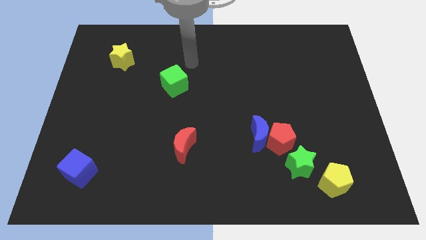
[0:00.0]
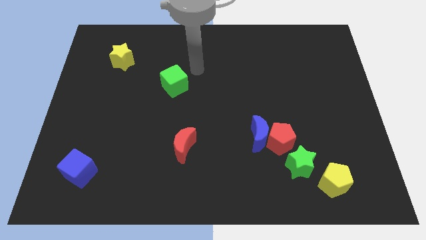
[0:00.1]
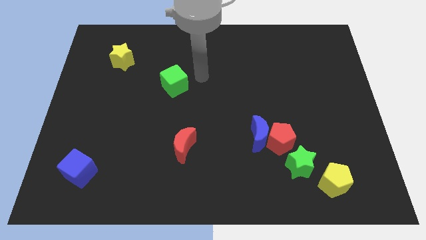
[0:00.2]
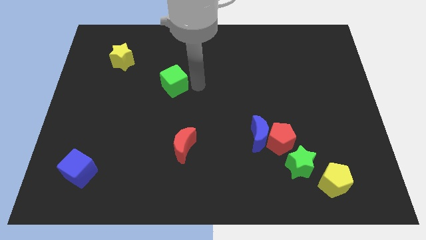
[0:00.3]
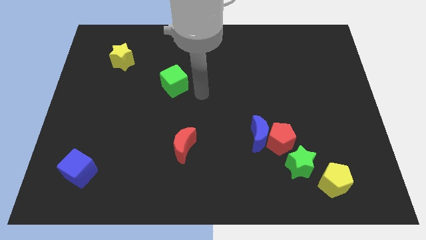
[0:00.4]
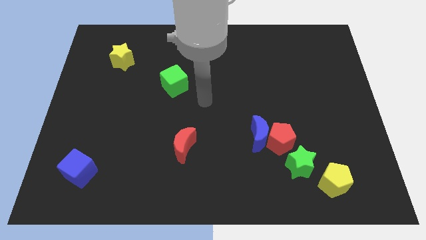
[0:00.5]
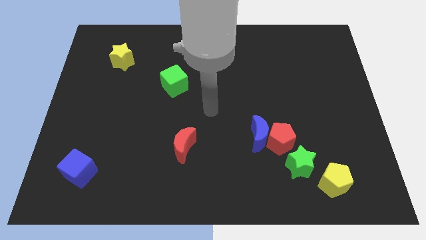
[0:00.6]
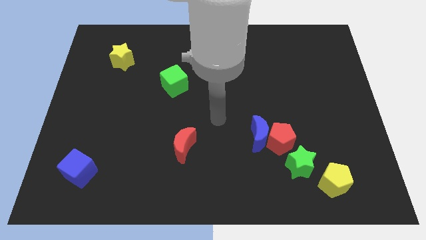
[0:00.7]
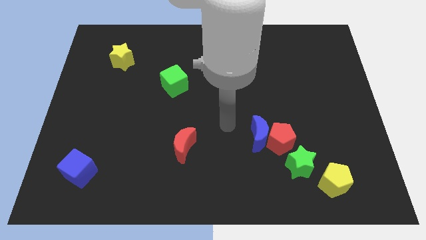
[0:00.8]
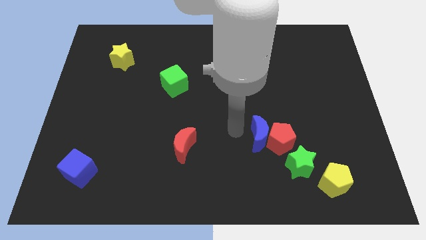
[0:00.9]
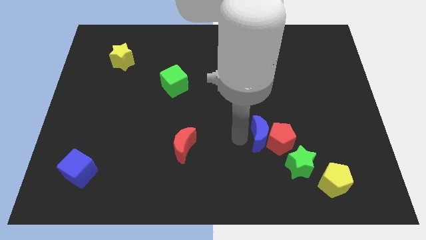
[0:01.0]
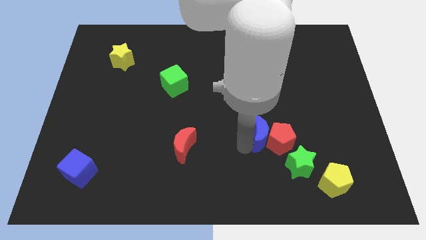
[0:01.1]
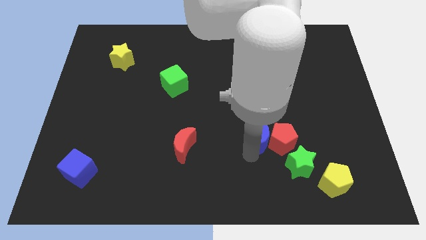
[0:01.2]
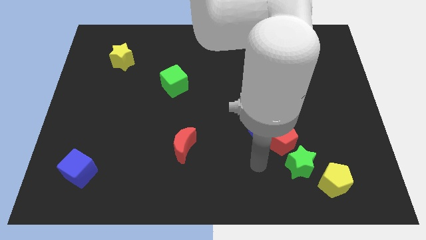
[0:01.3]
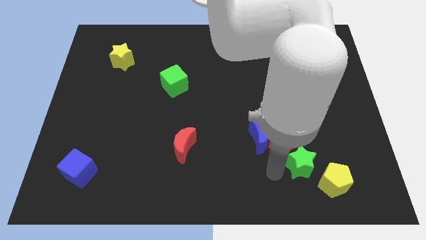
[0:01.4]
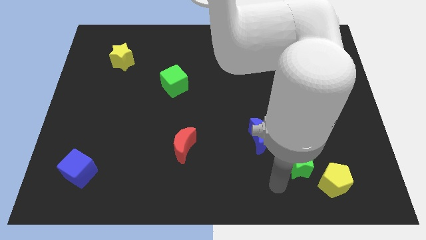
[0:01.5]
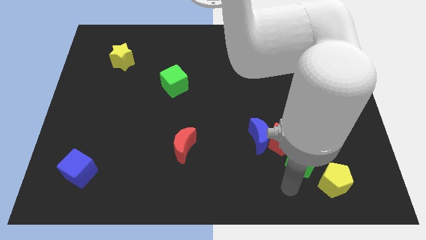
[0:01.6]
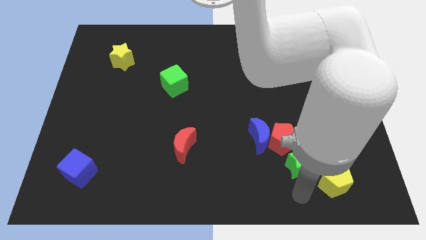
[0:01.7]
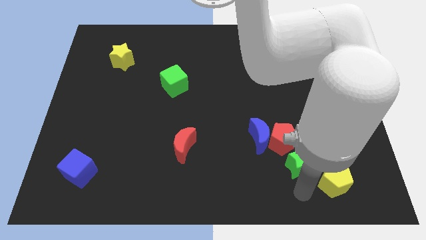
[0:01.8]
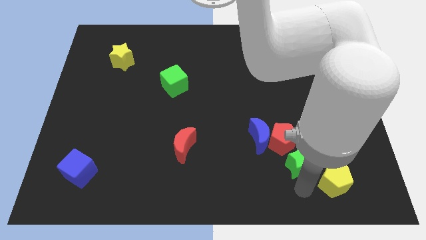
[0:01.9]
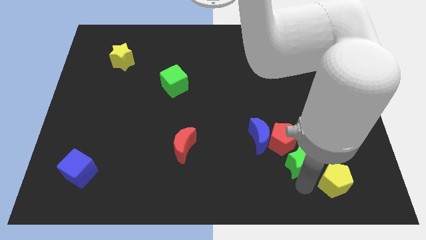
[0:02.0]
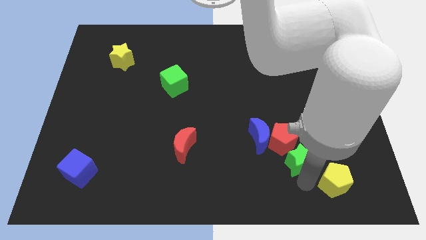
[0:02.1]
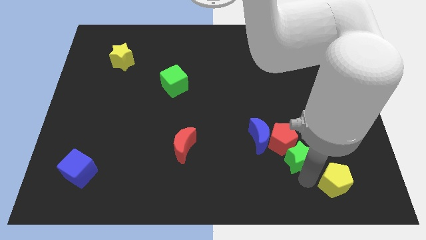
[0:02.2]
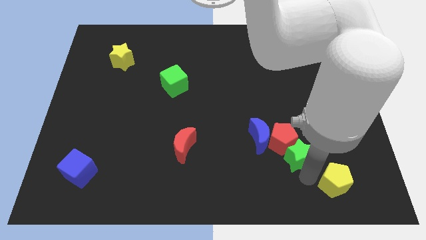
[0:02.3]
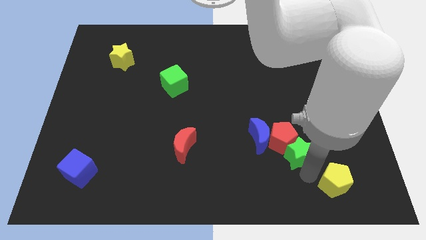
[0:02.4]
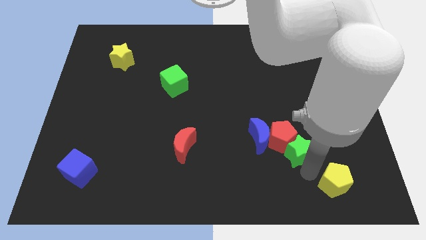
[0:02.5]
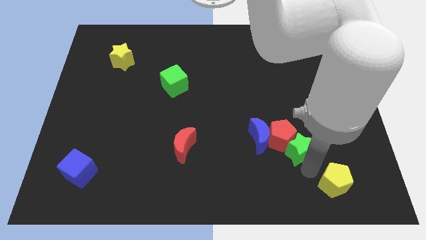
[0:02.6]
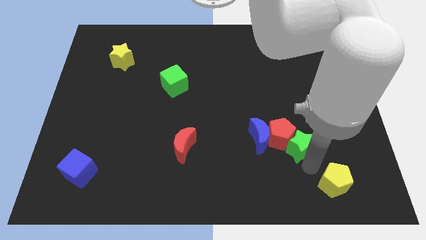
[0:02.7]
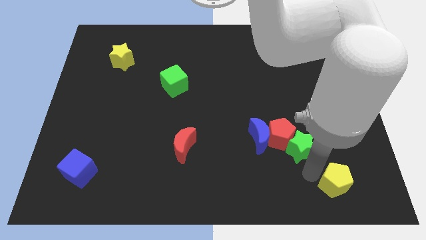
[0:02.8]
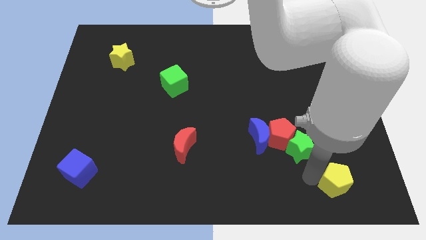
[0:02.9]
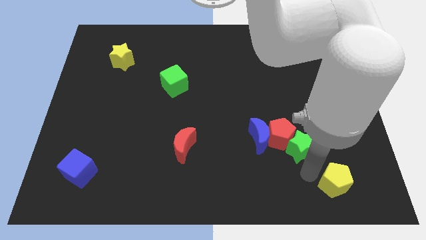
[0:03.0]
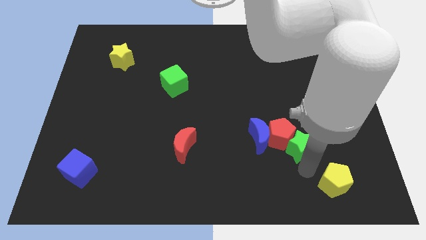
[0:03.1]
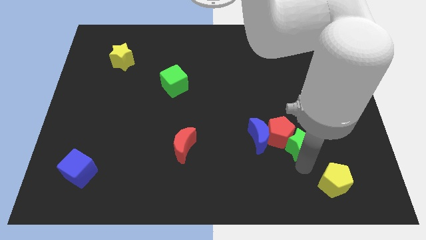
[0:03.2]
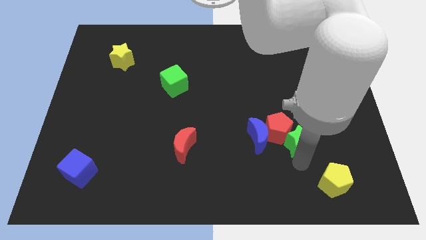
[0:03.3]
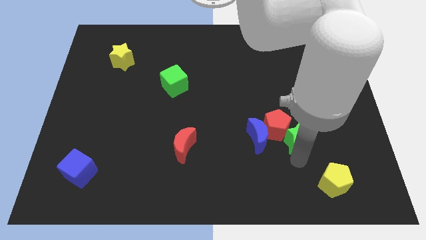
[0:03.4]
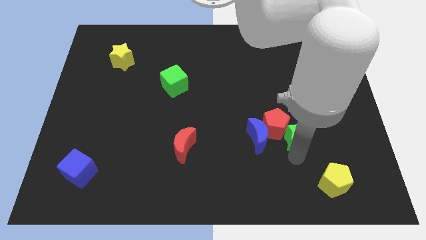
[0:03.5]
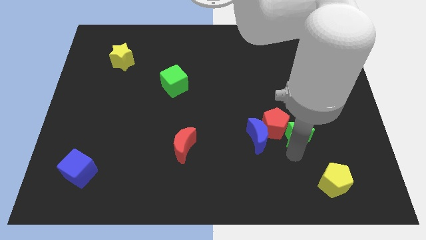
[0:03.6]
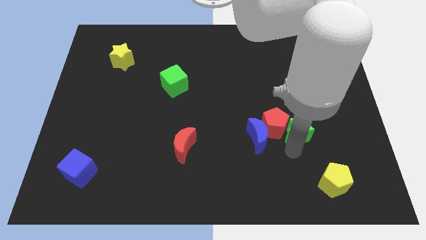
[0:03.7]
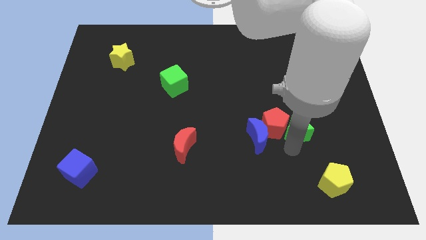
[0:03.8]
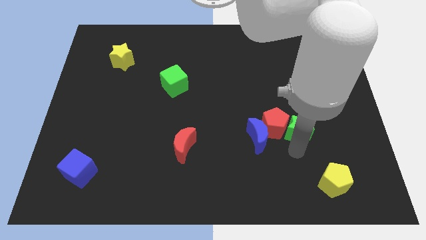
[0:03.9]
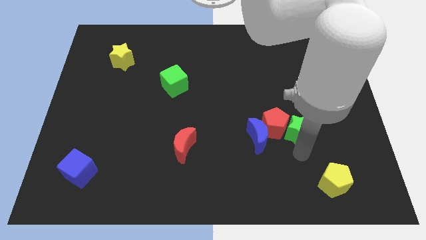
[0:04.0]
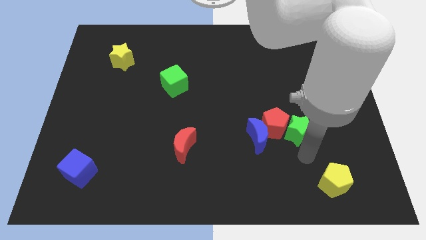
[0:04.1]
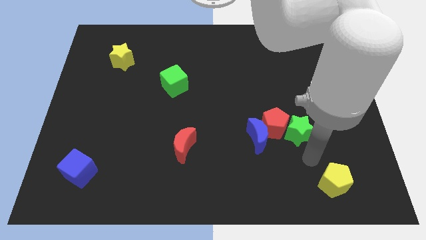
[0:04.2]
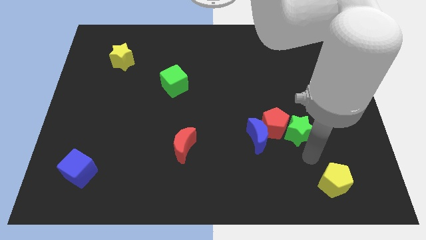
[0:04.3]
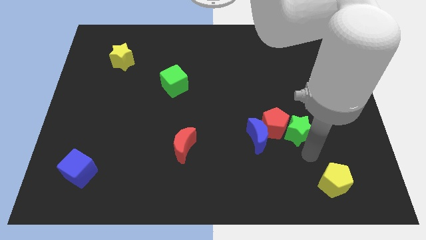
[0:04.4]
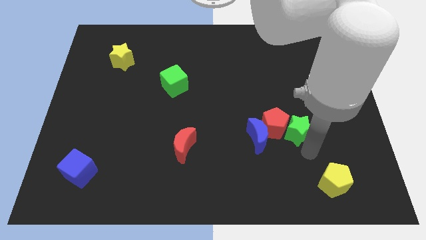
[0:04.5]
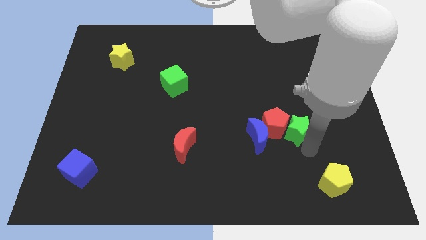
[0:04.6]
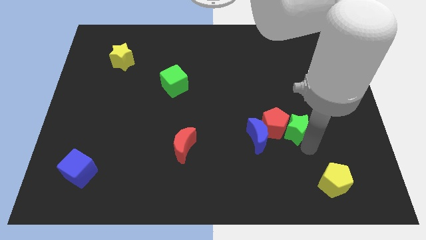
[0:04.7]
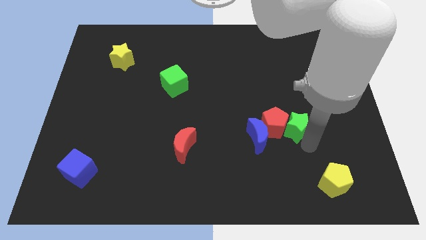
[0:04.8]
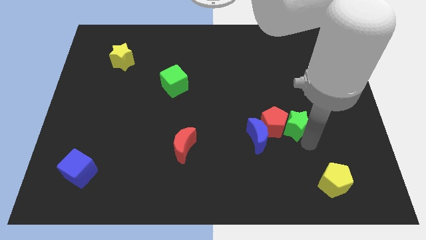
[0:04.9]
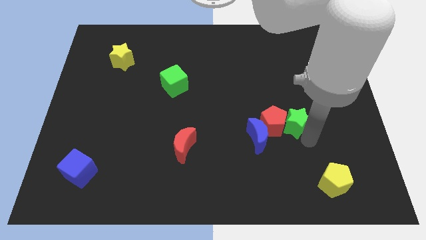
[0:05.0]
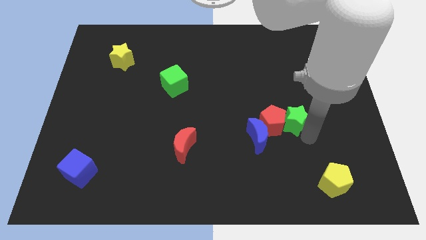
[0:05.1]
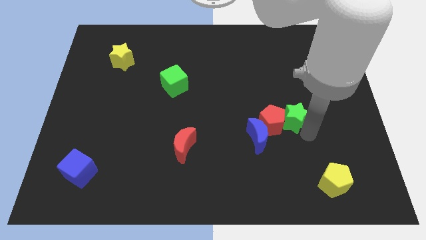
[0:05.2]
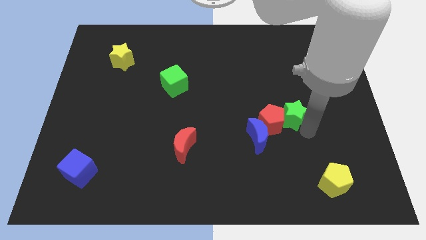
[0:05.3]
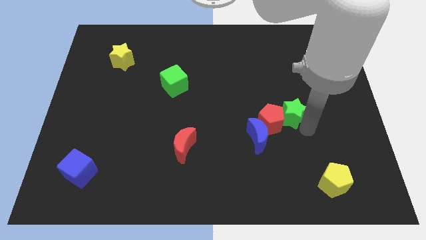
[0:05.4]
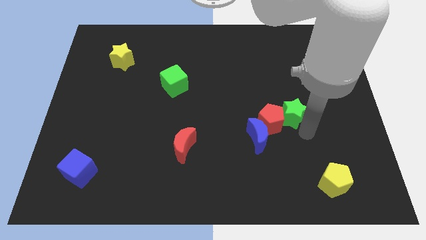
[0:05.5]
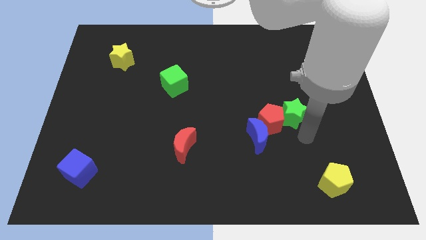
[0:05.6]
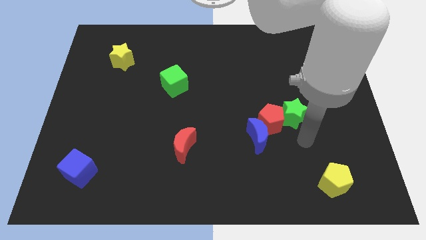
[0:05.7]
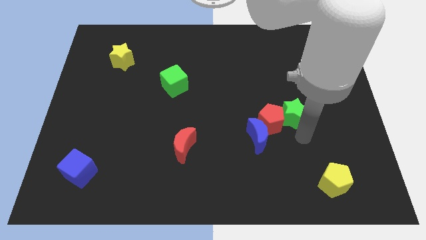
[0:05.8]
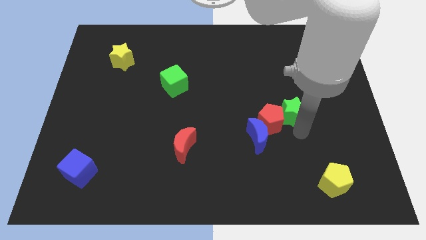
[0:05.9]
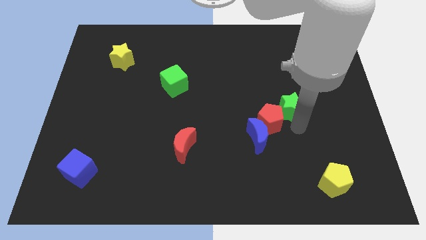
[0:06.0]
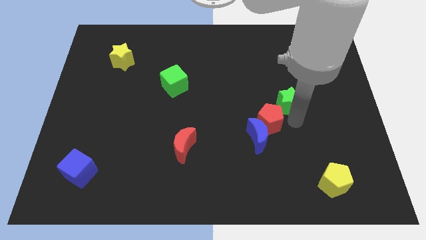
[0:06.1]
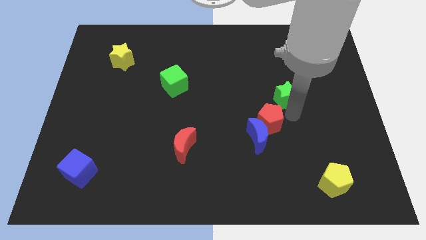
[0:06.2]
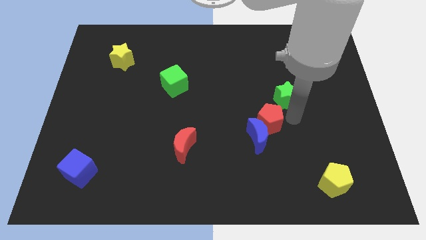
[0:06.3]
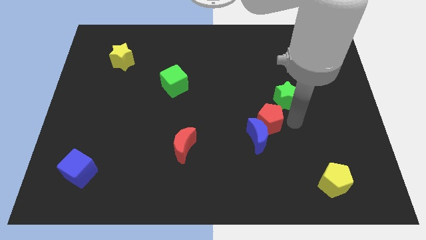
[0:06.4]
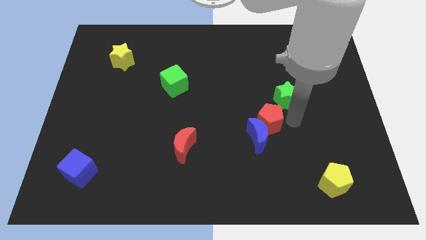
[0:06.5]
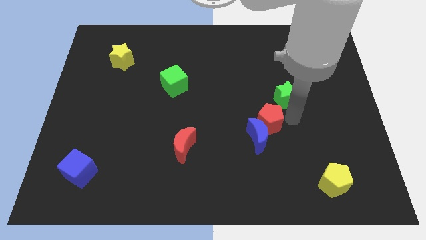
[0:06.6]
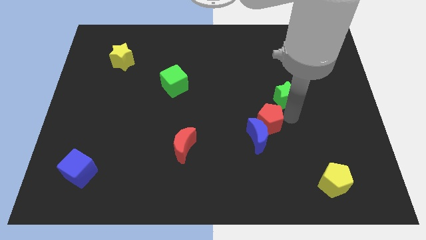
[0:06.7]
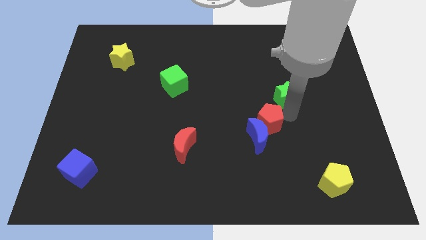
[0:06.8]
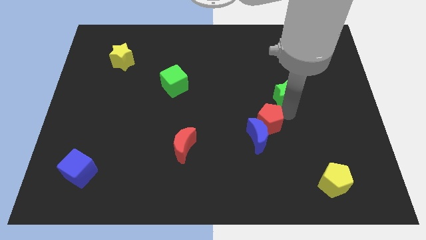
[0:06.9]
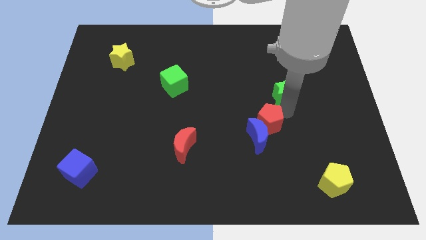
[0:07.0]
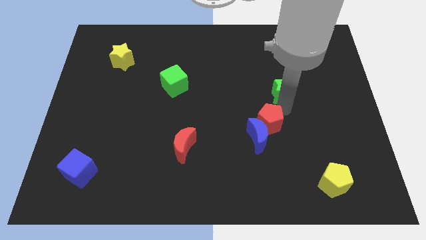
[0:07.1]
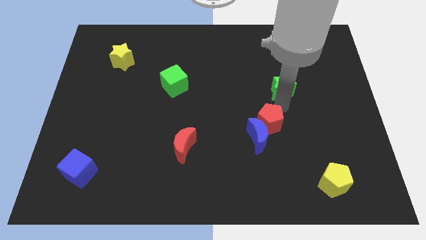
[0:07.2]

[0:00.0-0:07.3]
push the green star upwards

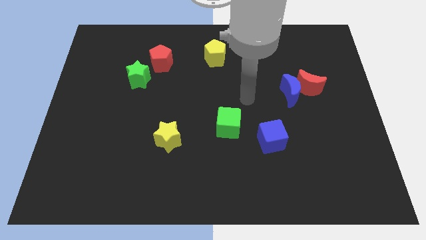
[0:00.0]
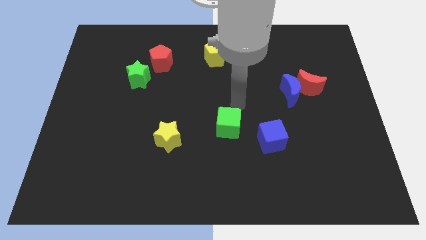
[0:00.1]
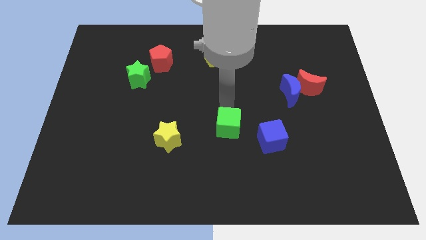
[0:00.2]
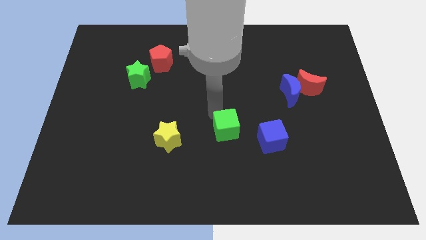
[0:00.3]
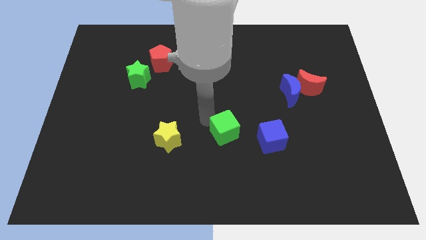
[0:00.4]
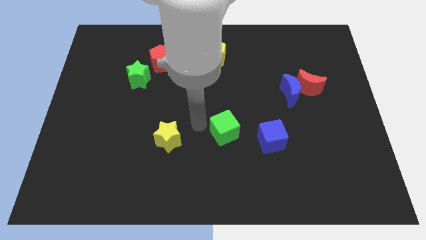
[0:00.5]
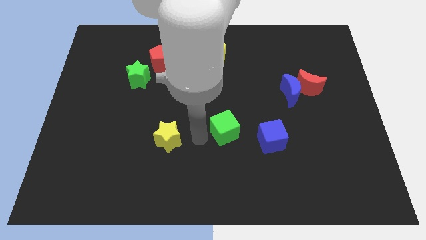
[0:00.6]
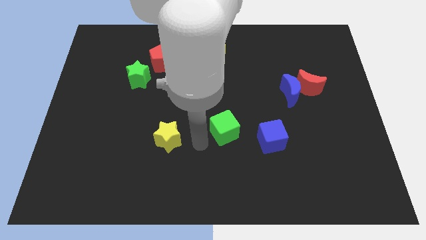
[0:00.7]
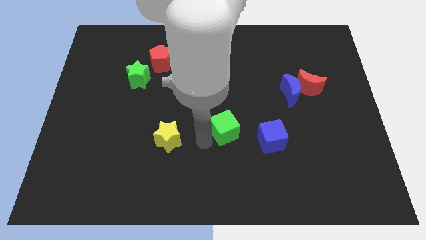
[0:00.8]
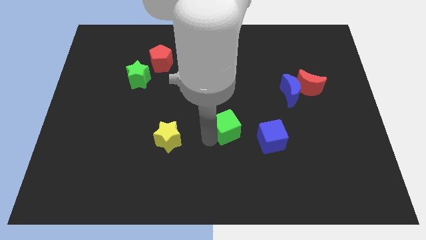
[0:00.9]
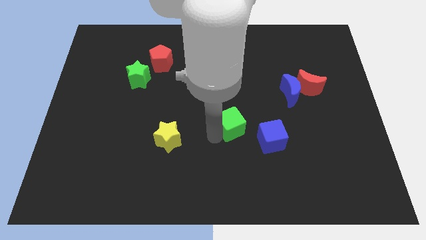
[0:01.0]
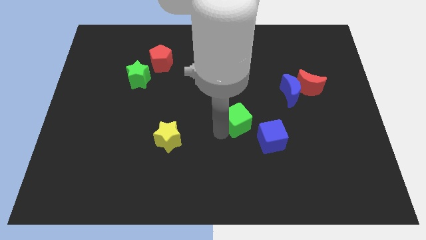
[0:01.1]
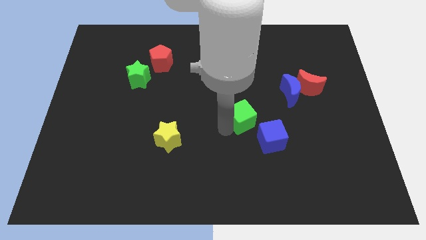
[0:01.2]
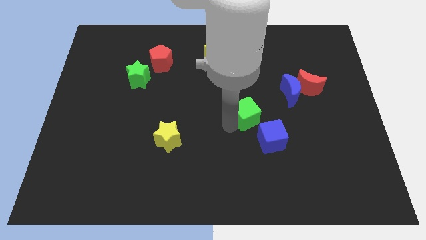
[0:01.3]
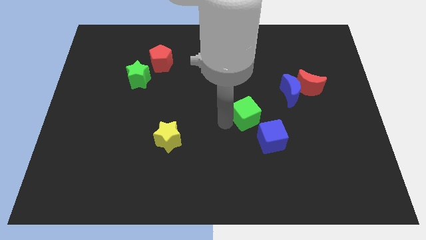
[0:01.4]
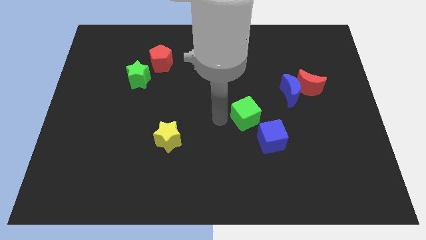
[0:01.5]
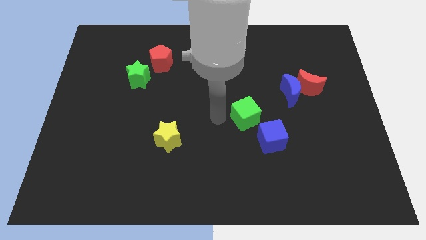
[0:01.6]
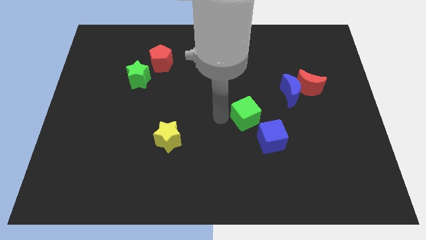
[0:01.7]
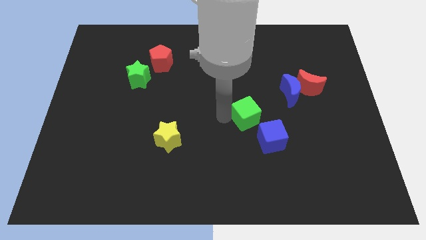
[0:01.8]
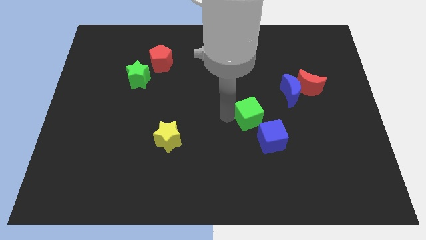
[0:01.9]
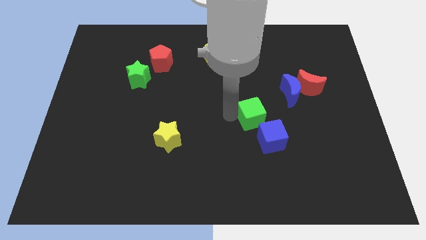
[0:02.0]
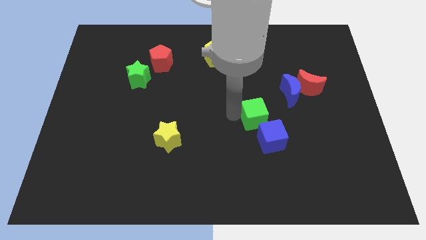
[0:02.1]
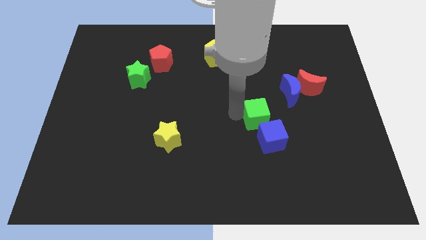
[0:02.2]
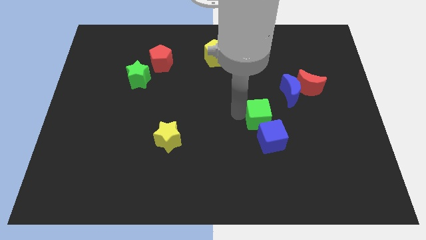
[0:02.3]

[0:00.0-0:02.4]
slightly move the green cube right
